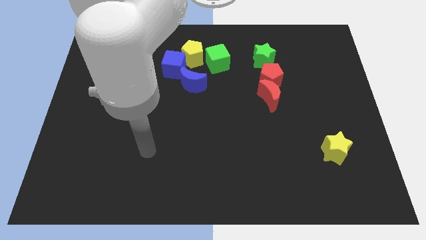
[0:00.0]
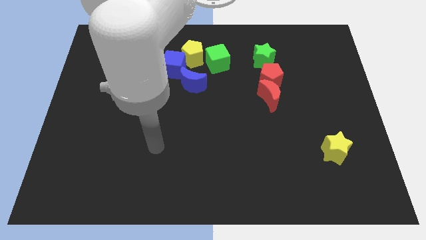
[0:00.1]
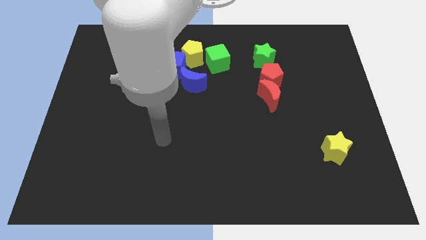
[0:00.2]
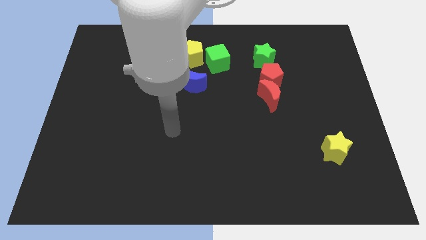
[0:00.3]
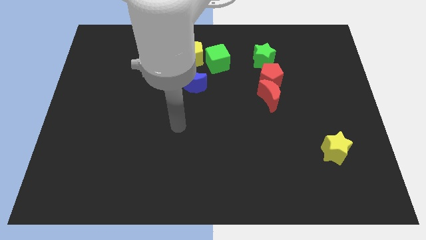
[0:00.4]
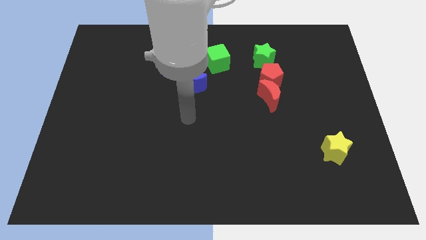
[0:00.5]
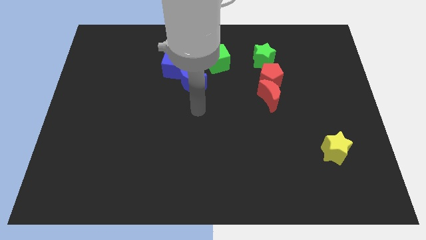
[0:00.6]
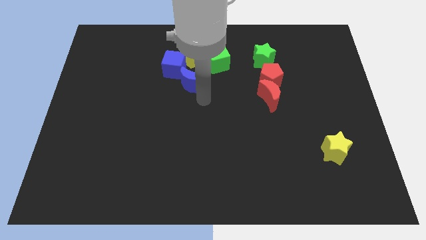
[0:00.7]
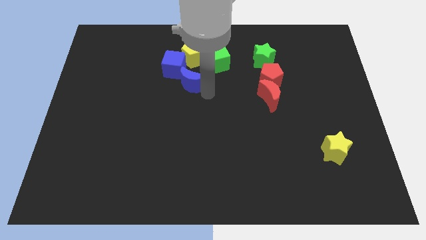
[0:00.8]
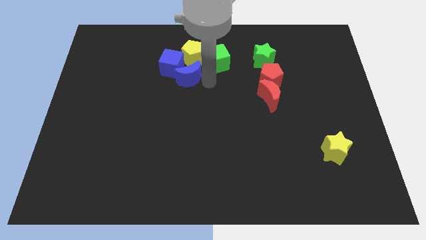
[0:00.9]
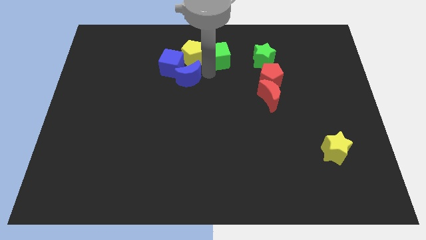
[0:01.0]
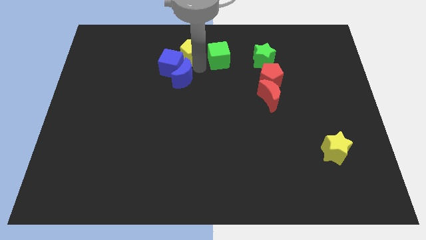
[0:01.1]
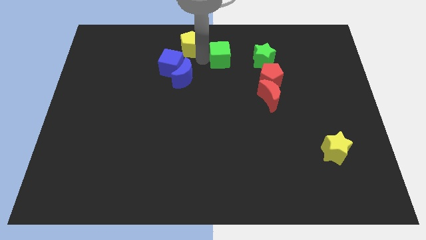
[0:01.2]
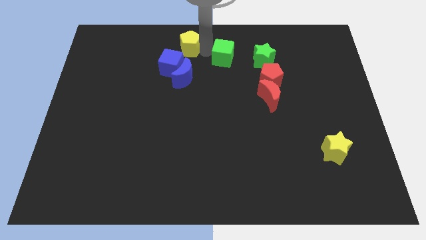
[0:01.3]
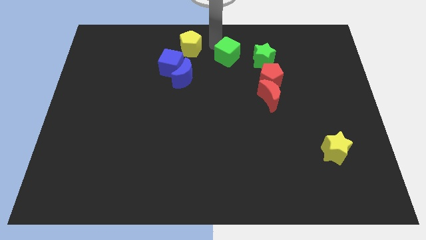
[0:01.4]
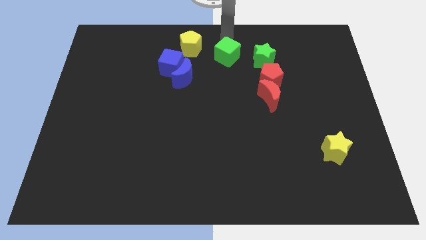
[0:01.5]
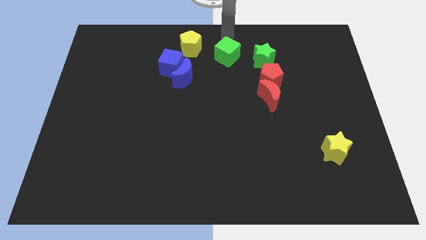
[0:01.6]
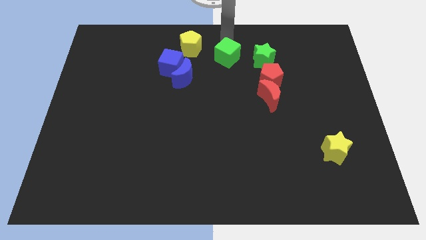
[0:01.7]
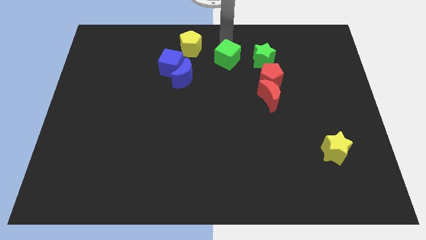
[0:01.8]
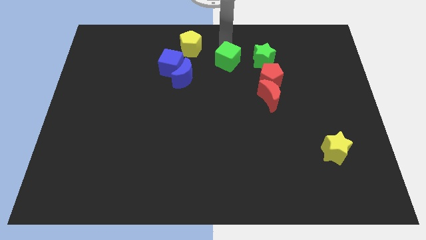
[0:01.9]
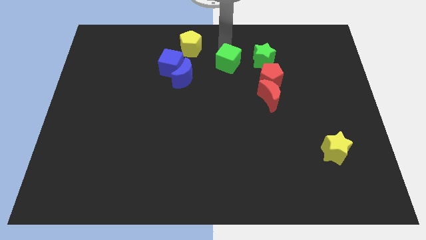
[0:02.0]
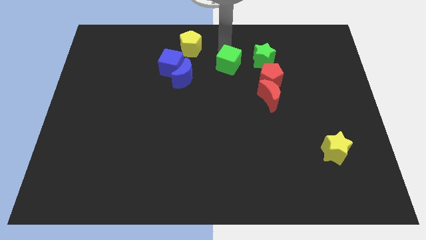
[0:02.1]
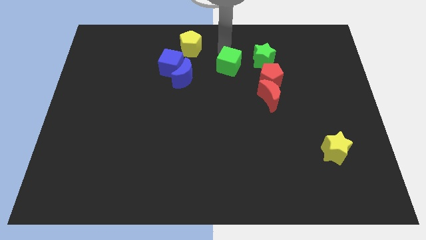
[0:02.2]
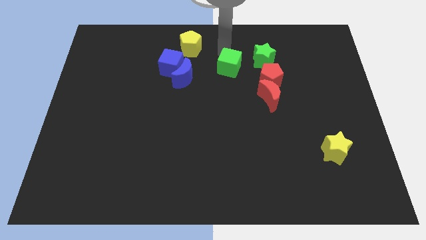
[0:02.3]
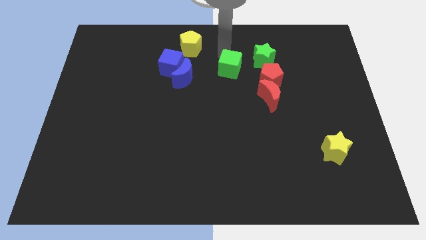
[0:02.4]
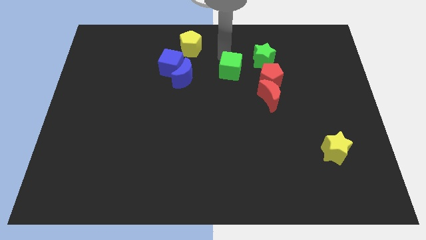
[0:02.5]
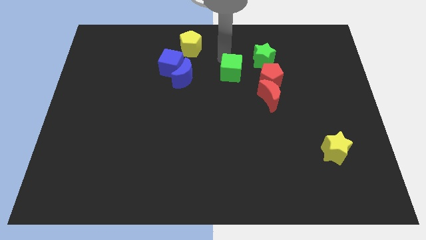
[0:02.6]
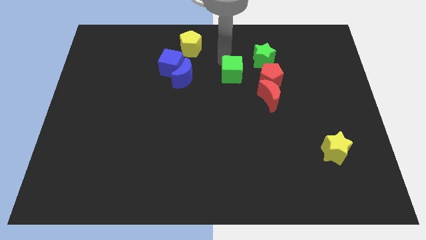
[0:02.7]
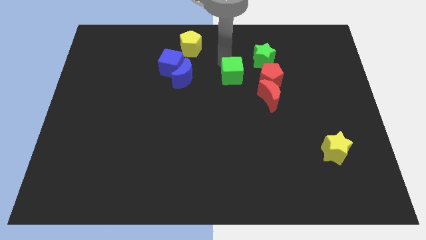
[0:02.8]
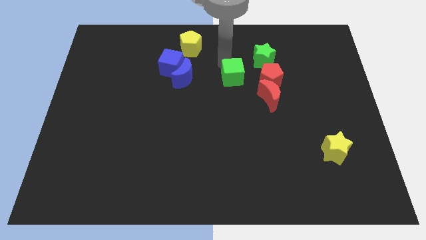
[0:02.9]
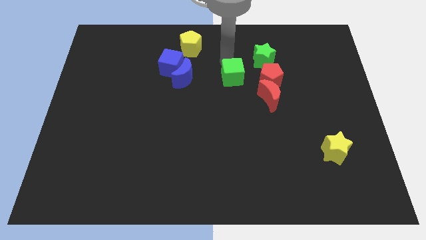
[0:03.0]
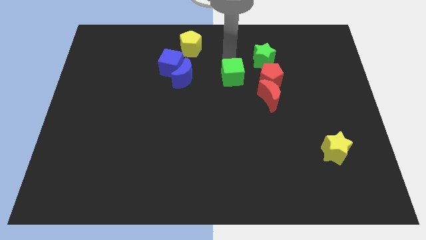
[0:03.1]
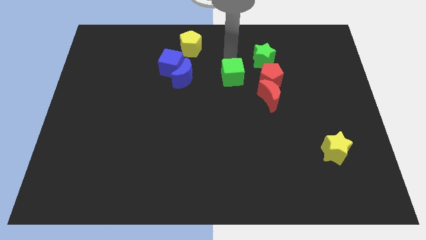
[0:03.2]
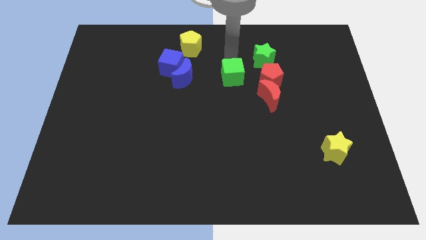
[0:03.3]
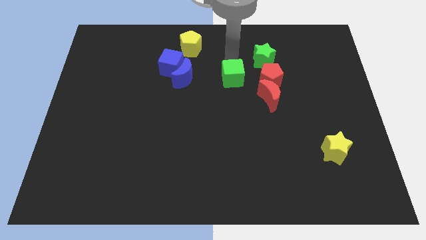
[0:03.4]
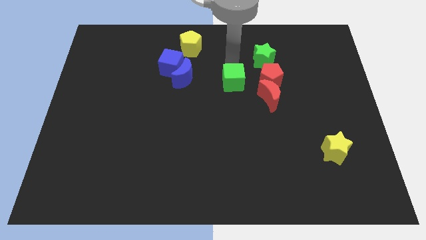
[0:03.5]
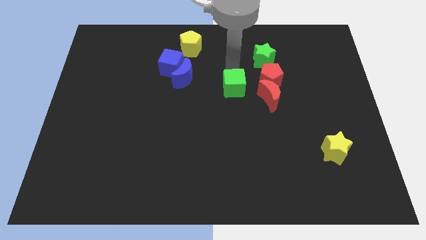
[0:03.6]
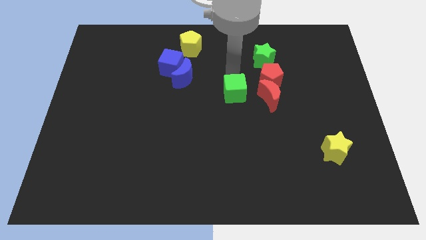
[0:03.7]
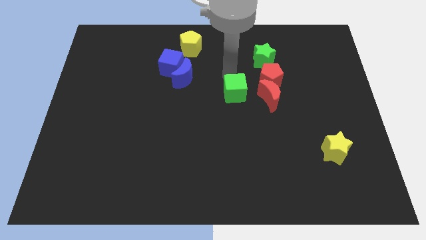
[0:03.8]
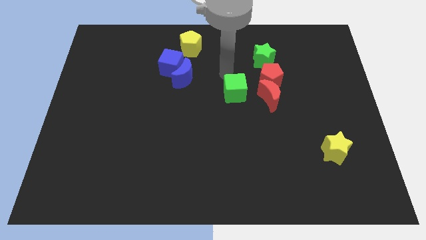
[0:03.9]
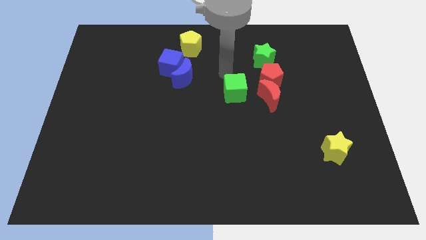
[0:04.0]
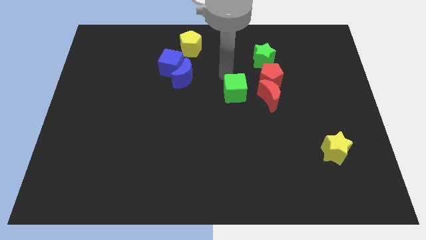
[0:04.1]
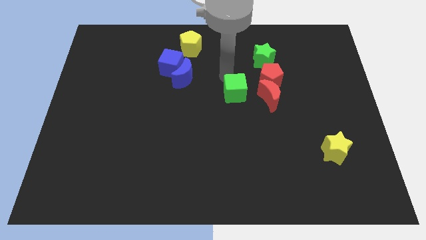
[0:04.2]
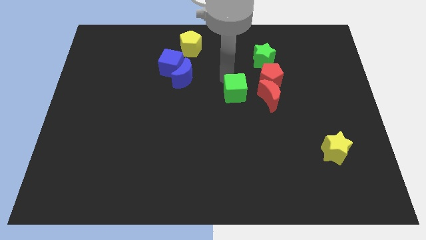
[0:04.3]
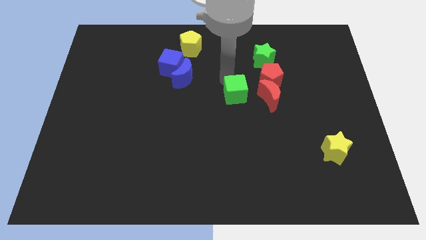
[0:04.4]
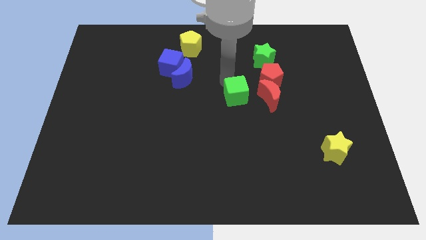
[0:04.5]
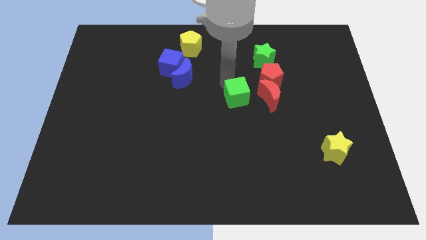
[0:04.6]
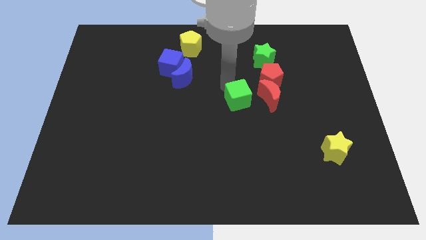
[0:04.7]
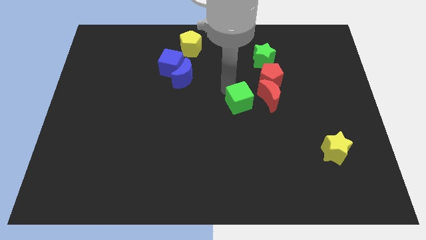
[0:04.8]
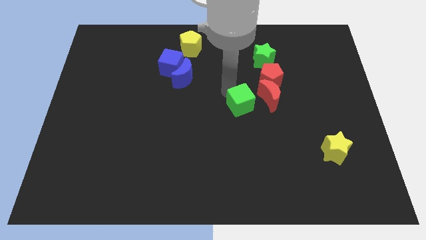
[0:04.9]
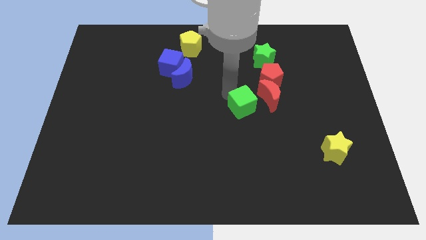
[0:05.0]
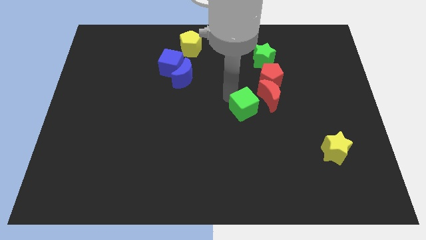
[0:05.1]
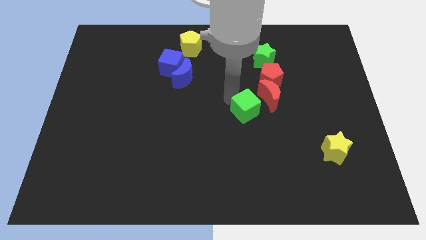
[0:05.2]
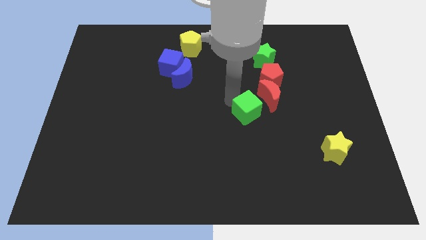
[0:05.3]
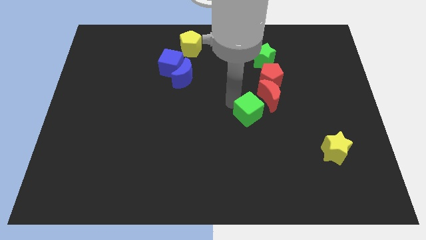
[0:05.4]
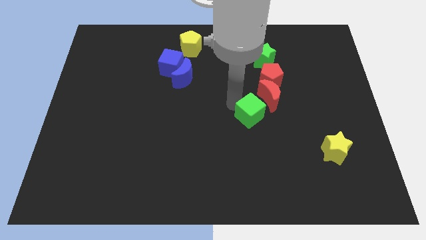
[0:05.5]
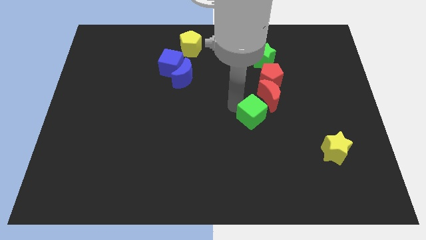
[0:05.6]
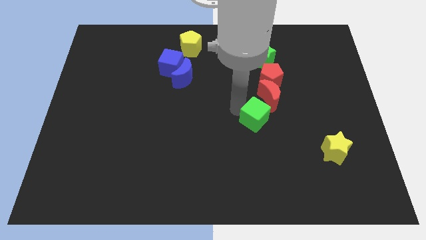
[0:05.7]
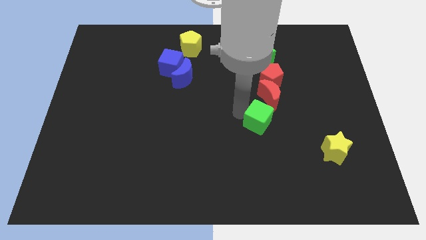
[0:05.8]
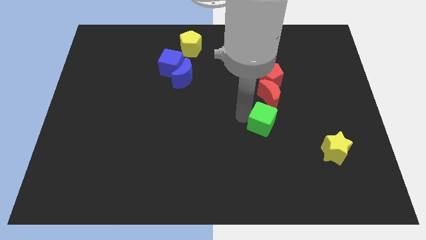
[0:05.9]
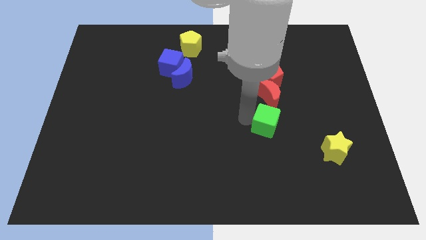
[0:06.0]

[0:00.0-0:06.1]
move the green cube down and to the right

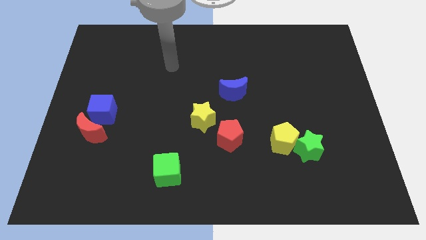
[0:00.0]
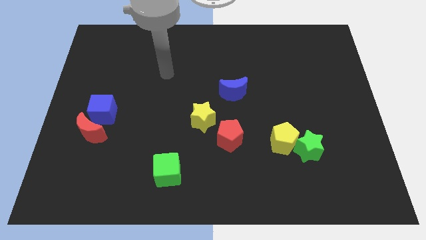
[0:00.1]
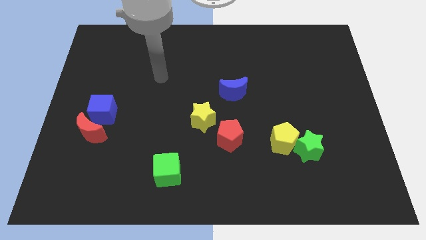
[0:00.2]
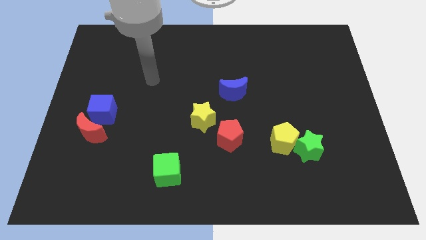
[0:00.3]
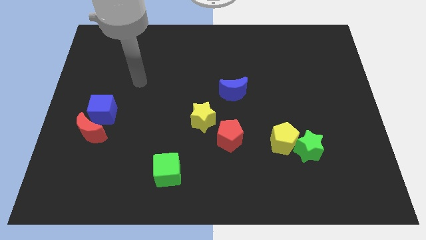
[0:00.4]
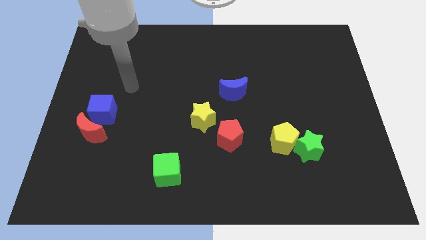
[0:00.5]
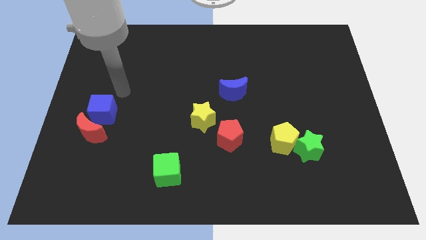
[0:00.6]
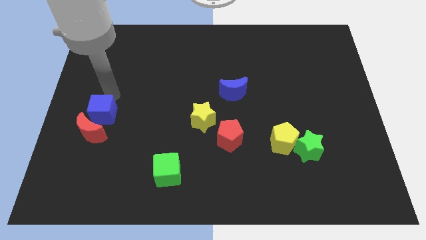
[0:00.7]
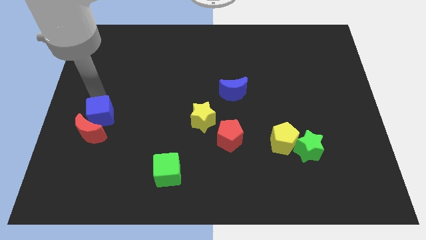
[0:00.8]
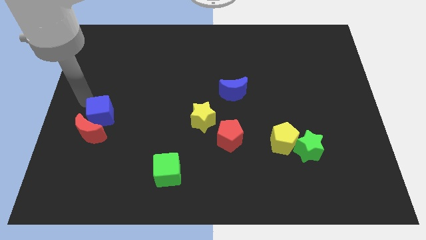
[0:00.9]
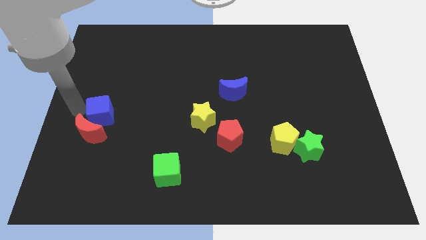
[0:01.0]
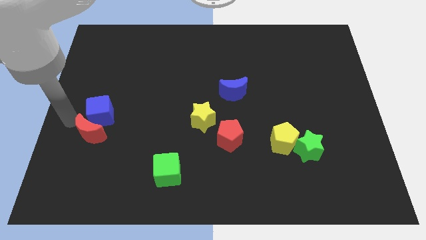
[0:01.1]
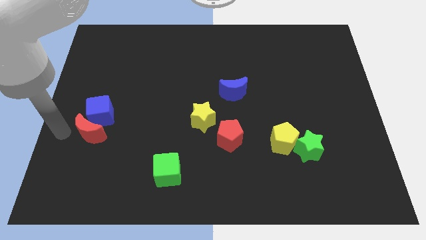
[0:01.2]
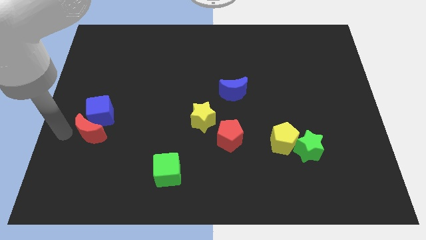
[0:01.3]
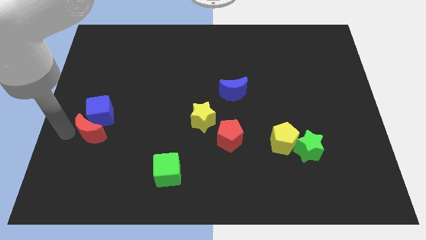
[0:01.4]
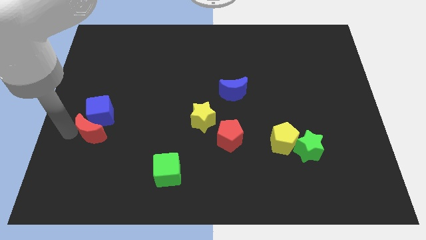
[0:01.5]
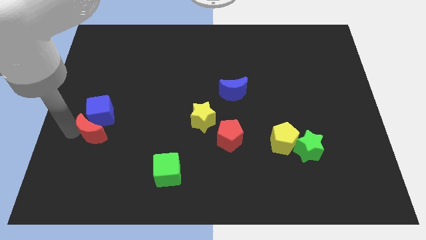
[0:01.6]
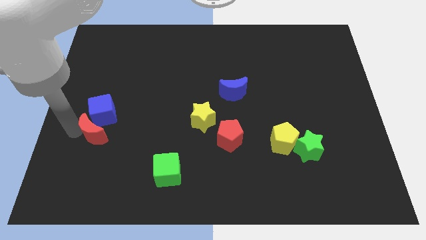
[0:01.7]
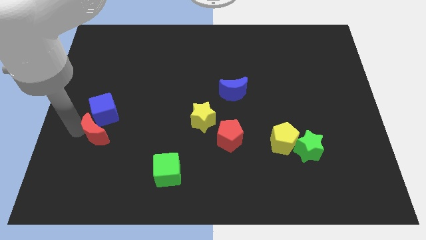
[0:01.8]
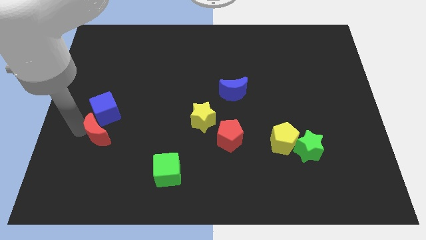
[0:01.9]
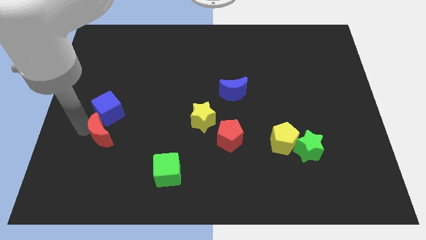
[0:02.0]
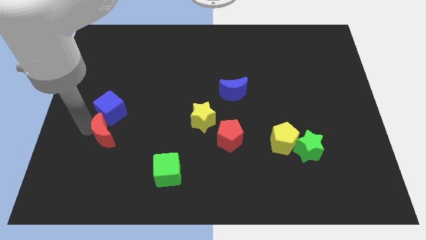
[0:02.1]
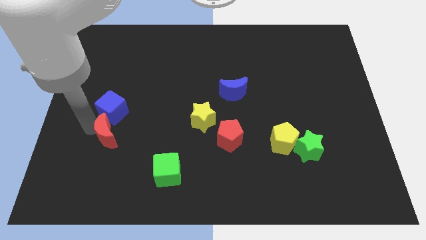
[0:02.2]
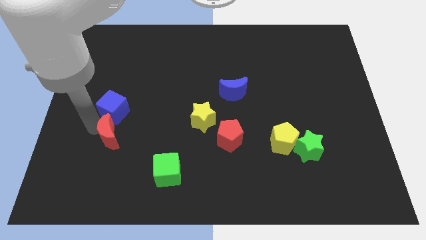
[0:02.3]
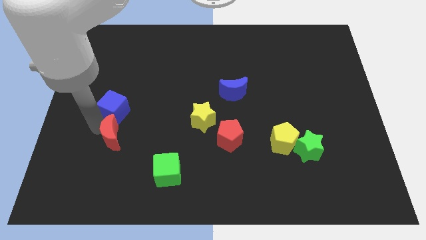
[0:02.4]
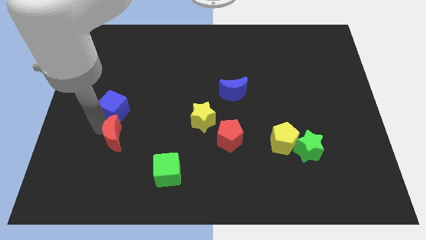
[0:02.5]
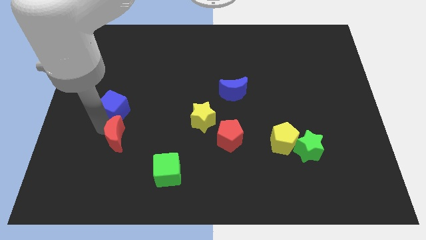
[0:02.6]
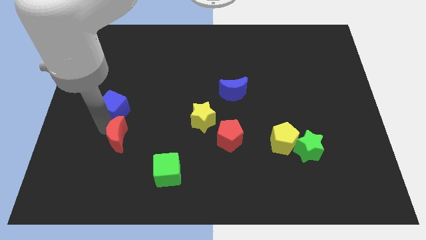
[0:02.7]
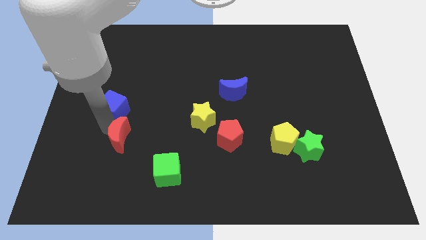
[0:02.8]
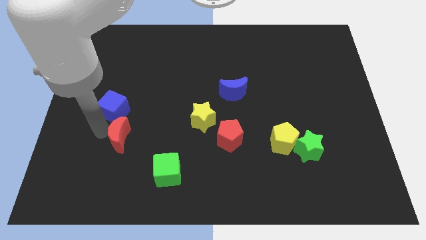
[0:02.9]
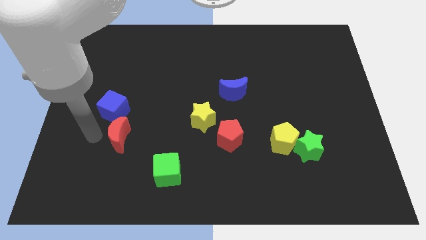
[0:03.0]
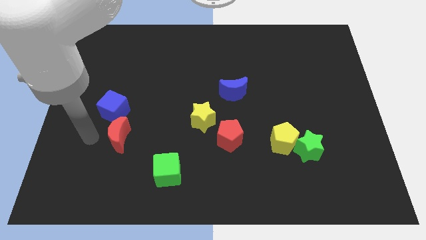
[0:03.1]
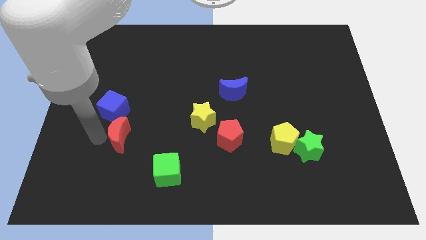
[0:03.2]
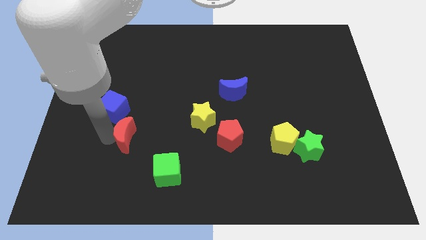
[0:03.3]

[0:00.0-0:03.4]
slide the red moon a little bit right
